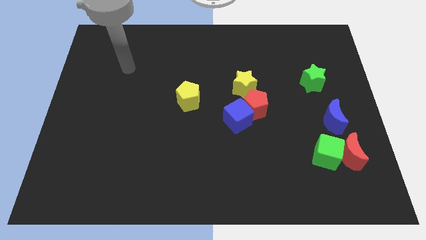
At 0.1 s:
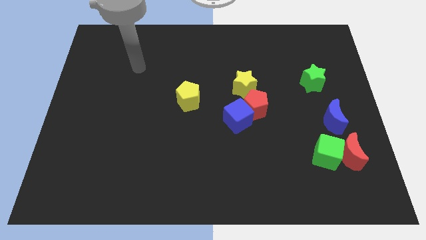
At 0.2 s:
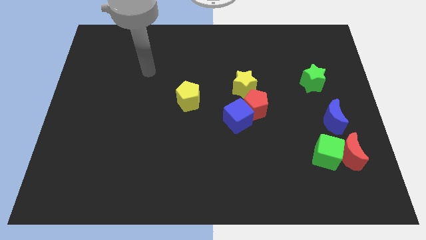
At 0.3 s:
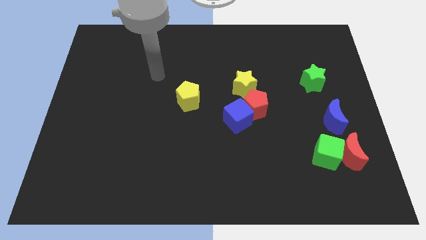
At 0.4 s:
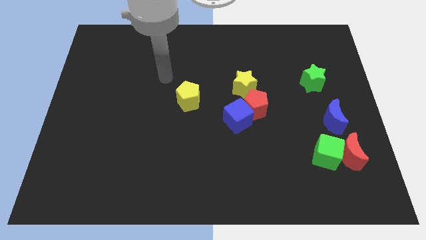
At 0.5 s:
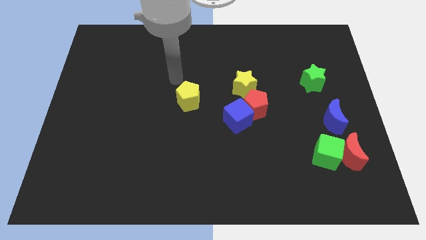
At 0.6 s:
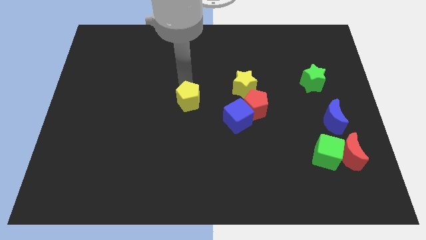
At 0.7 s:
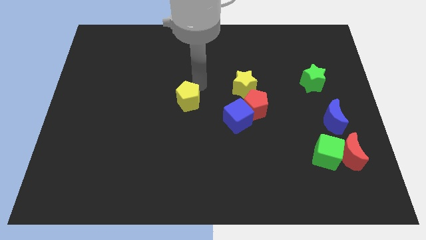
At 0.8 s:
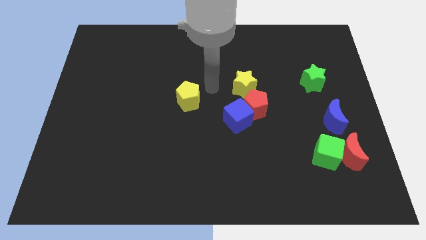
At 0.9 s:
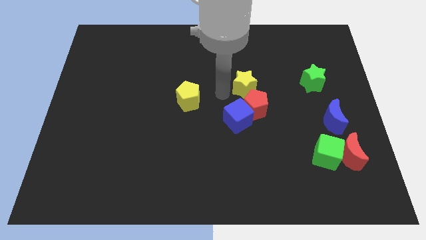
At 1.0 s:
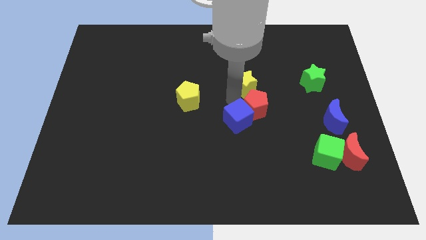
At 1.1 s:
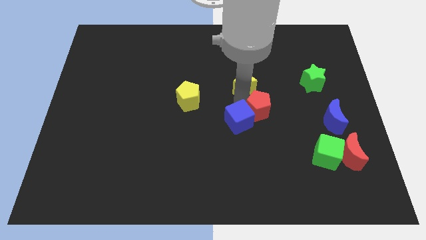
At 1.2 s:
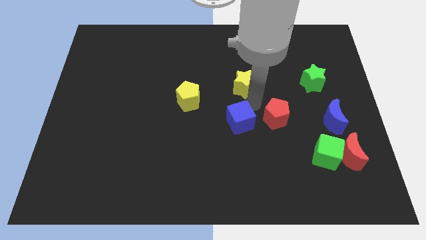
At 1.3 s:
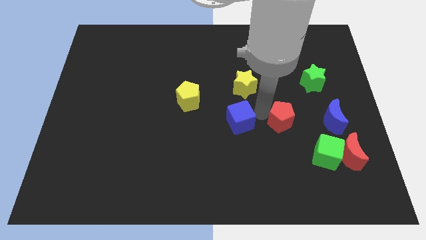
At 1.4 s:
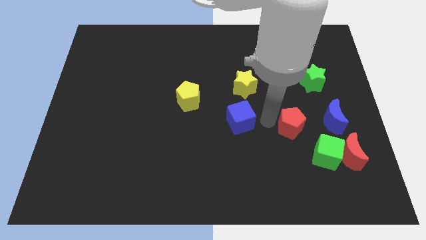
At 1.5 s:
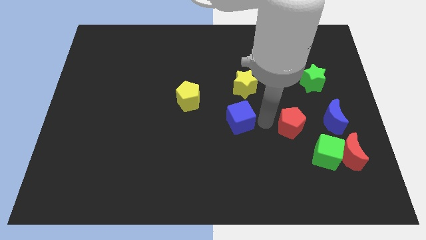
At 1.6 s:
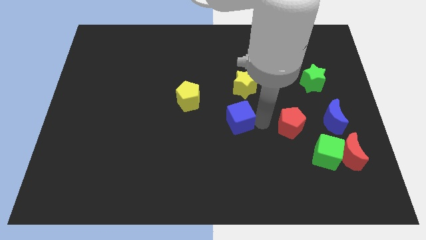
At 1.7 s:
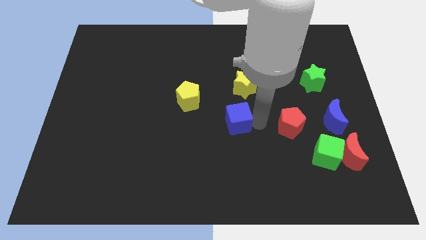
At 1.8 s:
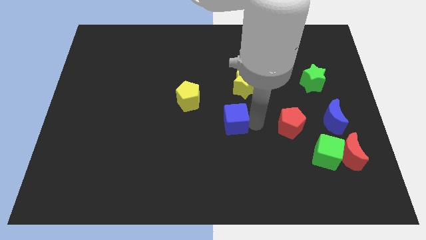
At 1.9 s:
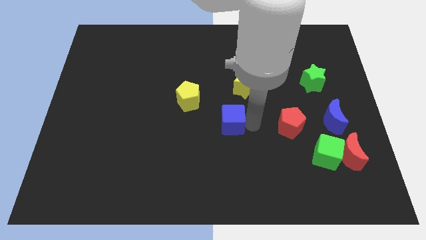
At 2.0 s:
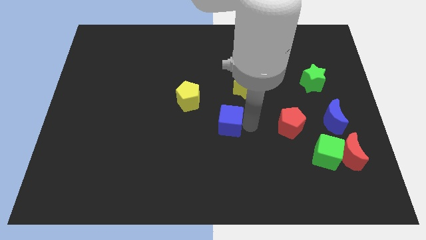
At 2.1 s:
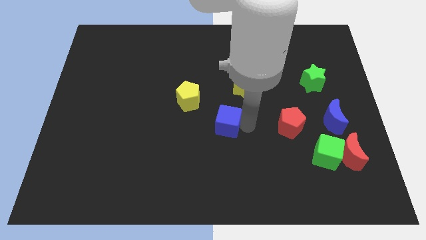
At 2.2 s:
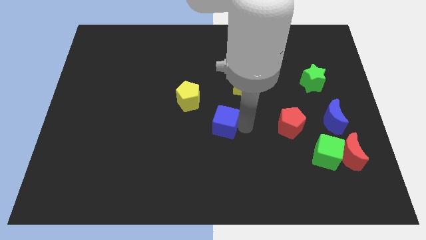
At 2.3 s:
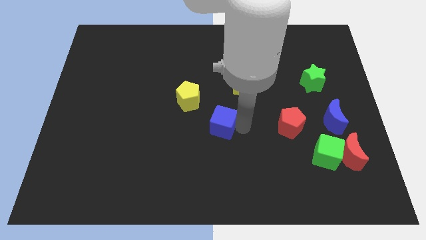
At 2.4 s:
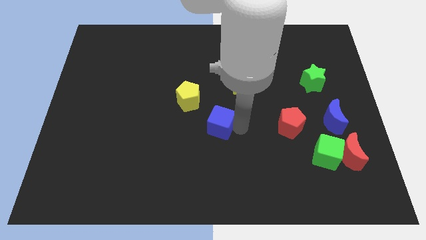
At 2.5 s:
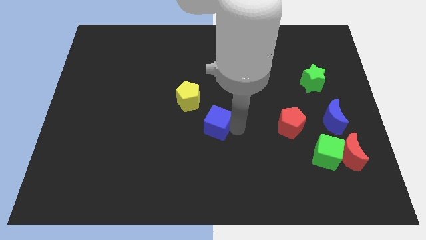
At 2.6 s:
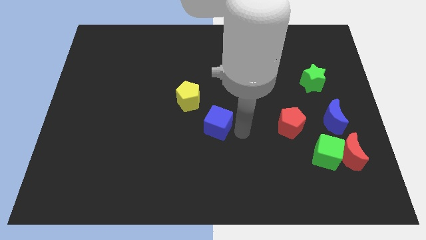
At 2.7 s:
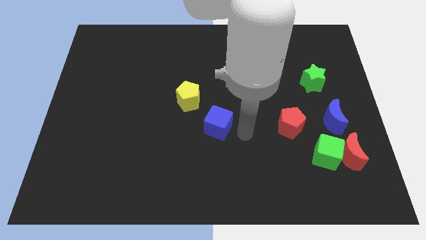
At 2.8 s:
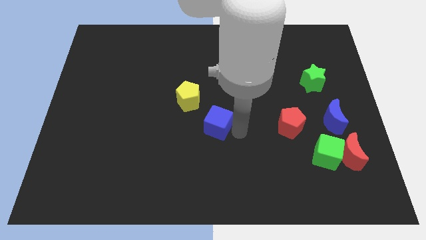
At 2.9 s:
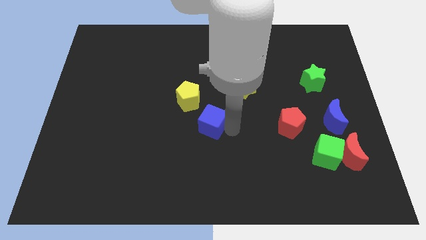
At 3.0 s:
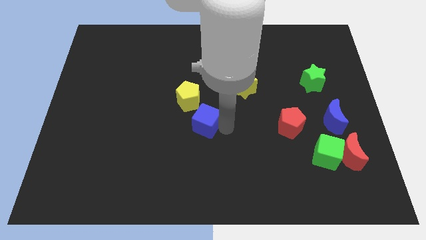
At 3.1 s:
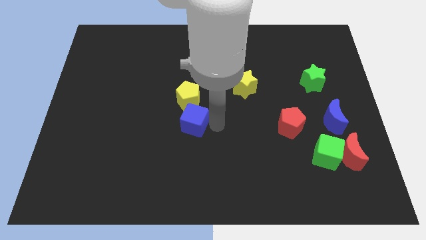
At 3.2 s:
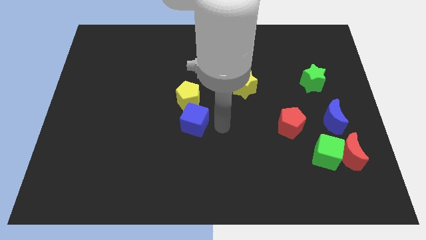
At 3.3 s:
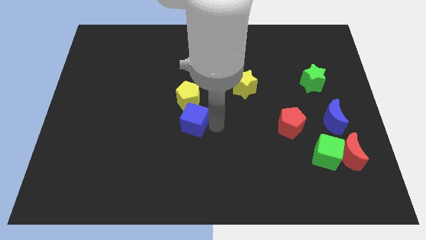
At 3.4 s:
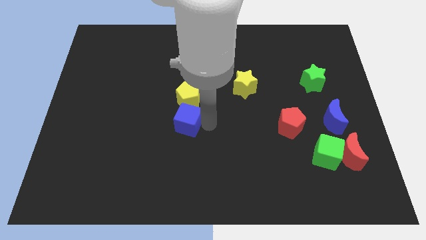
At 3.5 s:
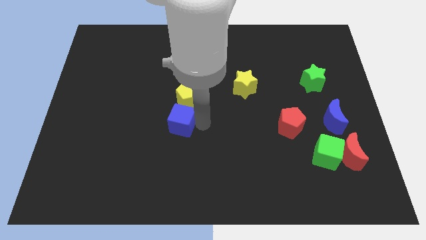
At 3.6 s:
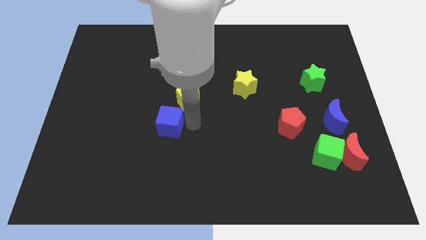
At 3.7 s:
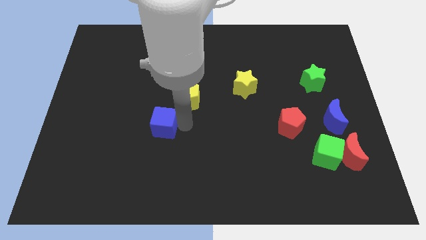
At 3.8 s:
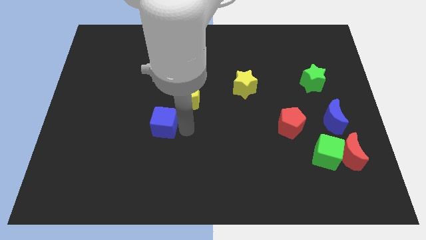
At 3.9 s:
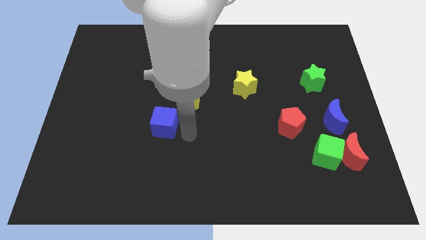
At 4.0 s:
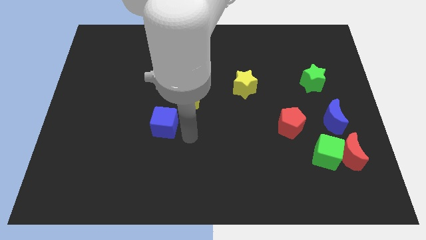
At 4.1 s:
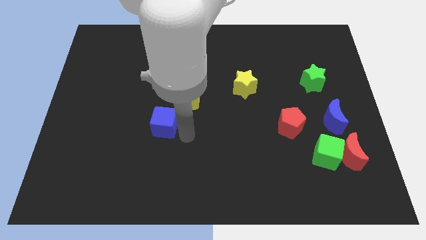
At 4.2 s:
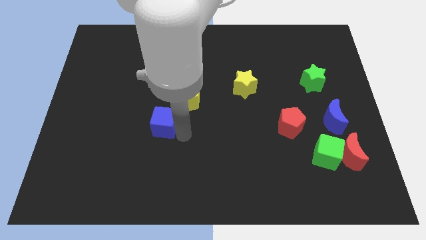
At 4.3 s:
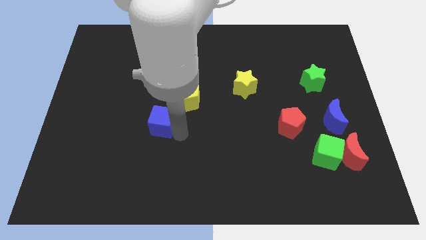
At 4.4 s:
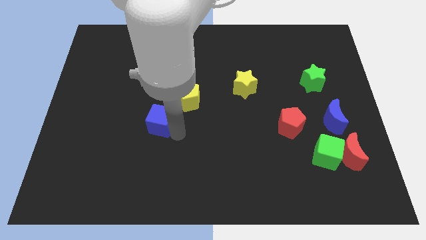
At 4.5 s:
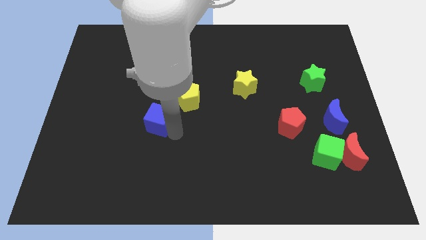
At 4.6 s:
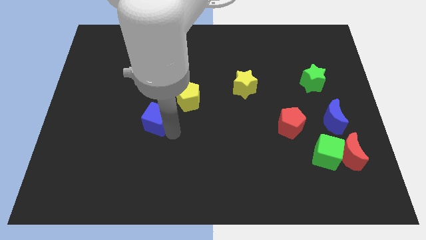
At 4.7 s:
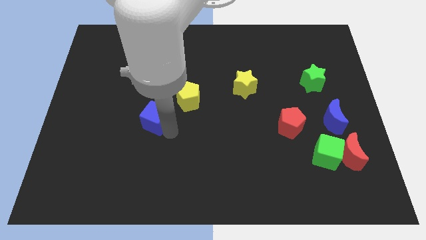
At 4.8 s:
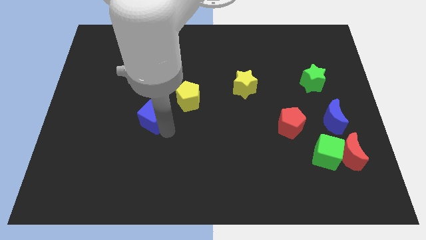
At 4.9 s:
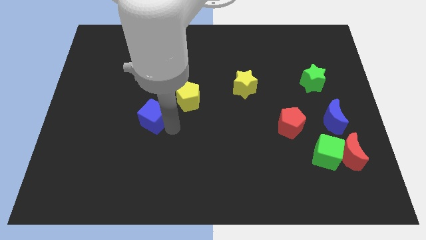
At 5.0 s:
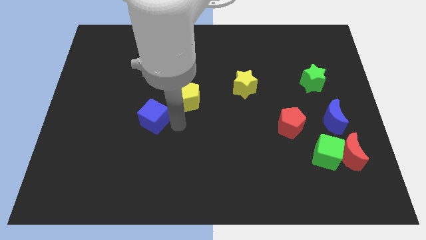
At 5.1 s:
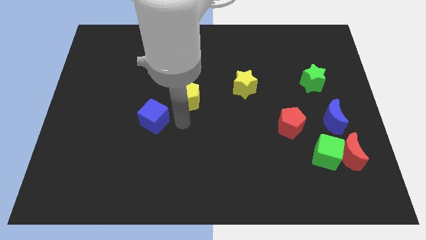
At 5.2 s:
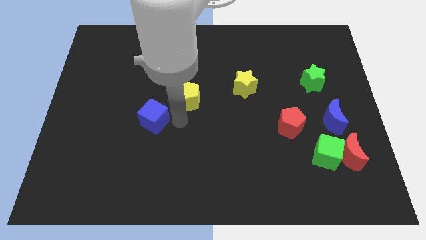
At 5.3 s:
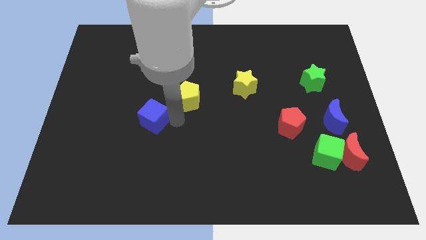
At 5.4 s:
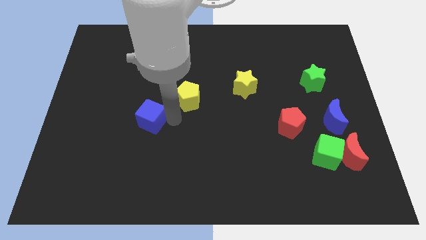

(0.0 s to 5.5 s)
slide the blue cube left

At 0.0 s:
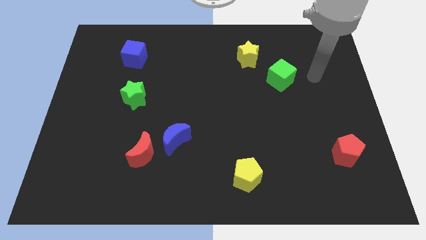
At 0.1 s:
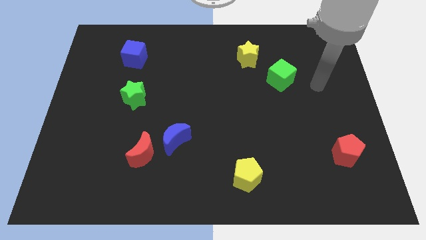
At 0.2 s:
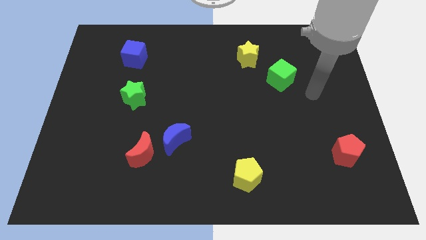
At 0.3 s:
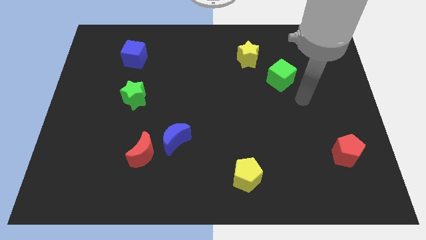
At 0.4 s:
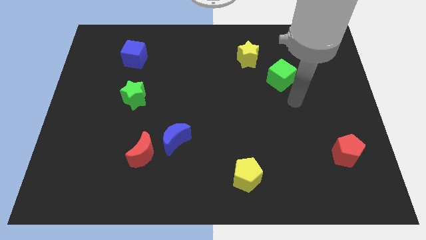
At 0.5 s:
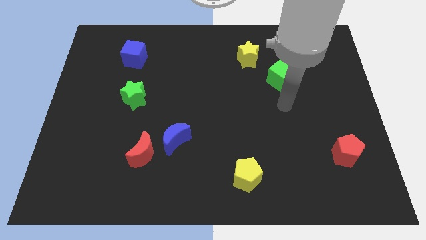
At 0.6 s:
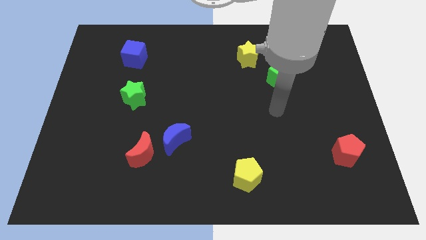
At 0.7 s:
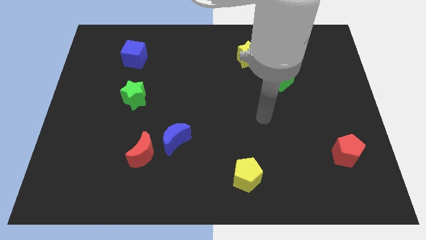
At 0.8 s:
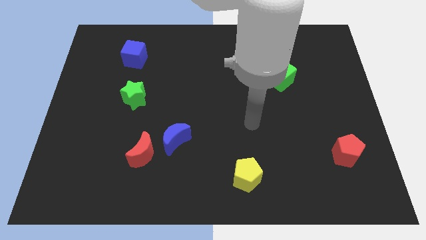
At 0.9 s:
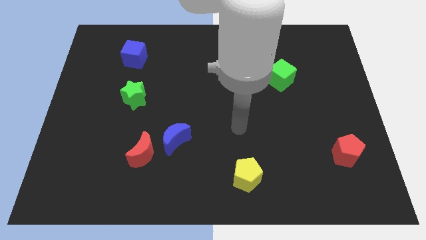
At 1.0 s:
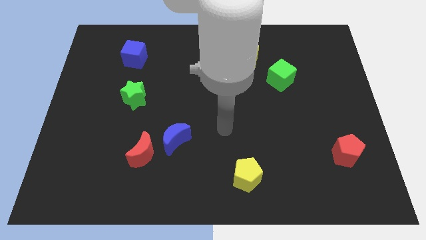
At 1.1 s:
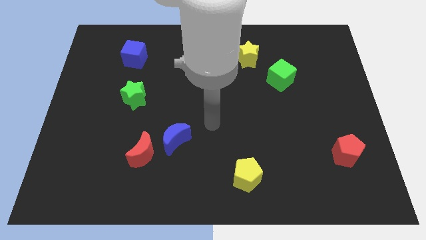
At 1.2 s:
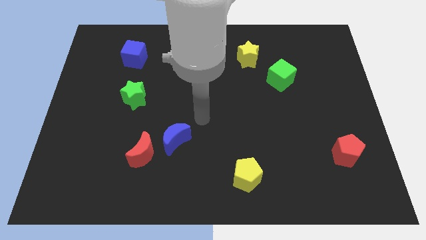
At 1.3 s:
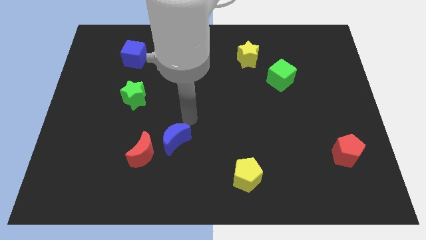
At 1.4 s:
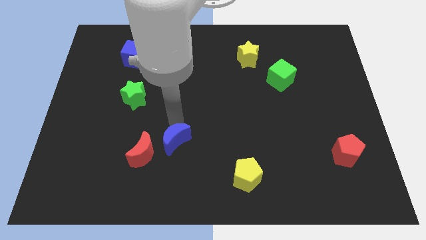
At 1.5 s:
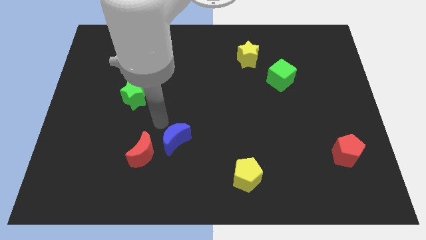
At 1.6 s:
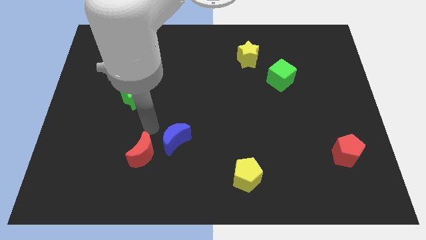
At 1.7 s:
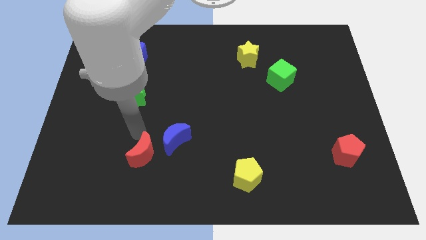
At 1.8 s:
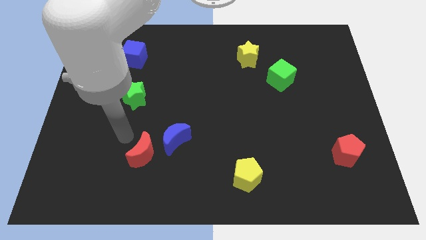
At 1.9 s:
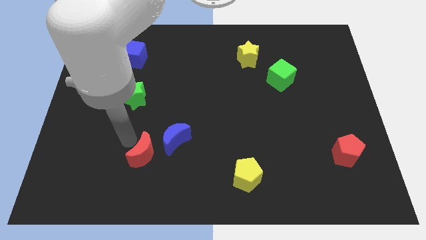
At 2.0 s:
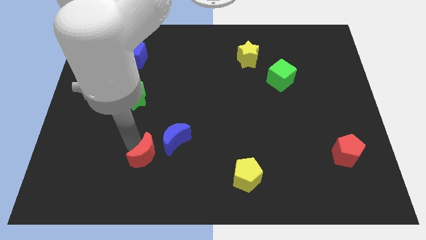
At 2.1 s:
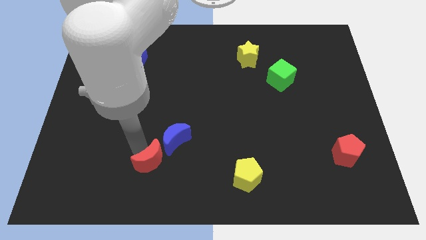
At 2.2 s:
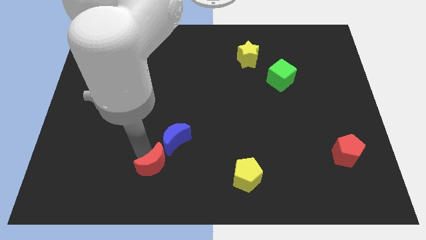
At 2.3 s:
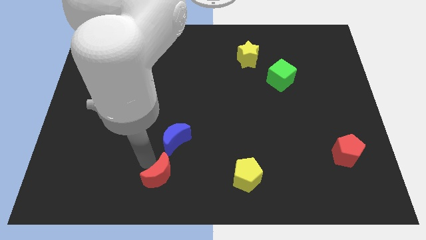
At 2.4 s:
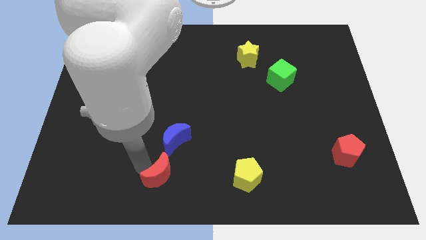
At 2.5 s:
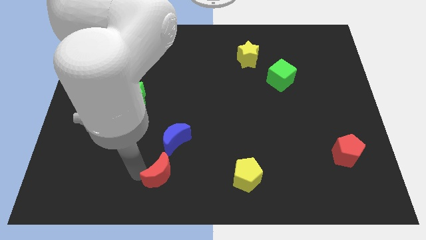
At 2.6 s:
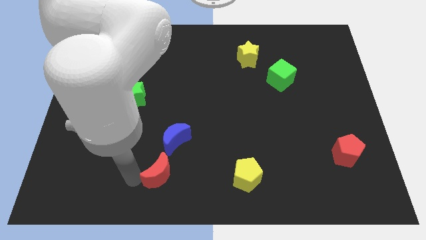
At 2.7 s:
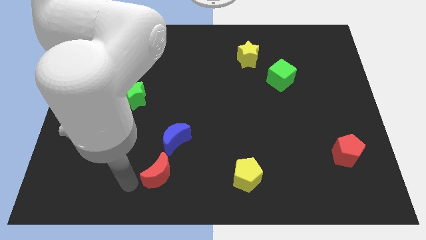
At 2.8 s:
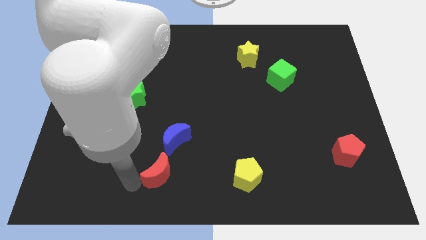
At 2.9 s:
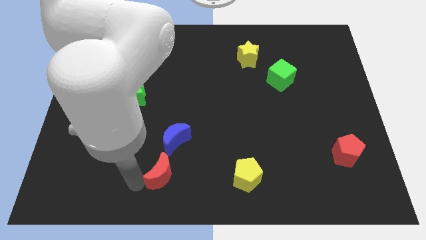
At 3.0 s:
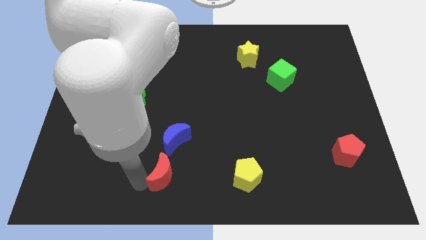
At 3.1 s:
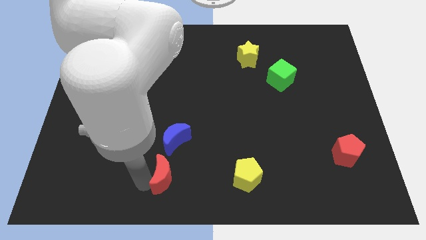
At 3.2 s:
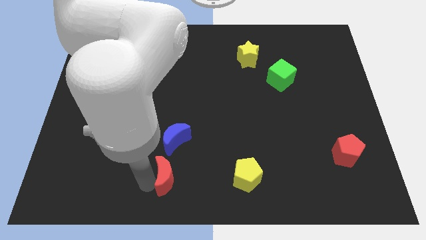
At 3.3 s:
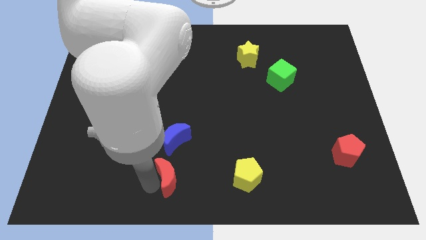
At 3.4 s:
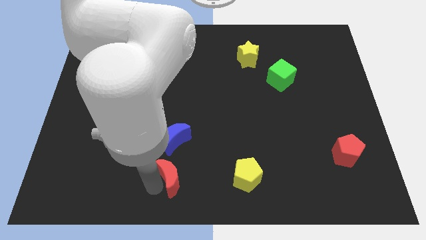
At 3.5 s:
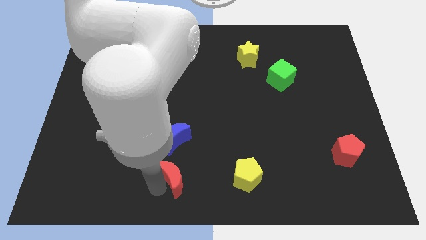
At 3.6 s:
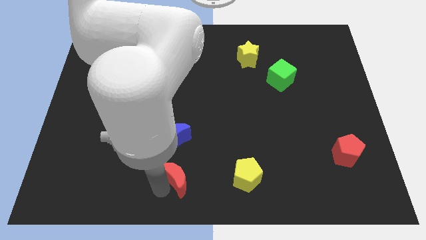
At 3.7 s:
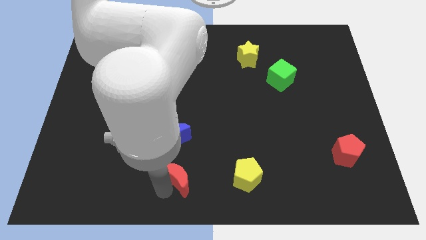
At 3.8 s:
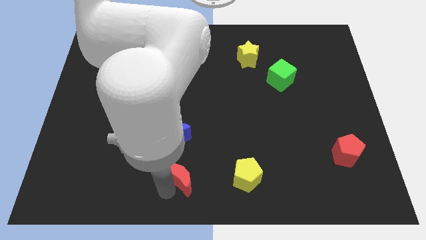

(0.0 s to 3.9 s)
push the red moon to the right a little bit
